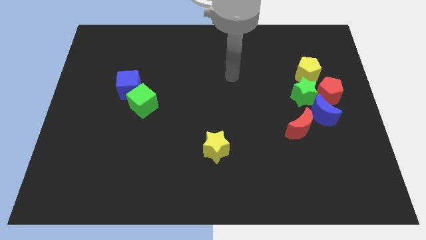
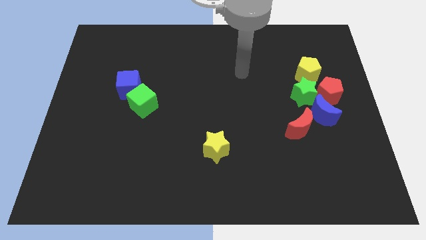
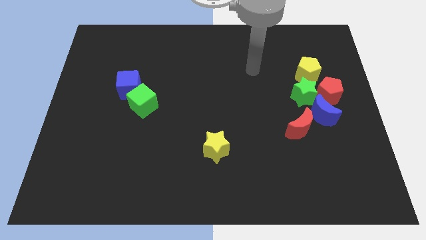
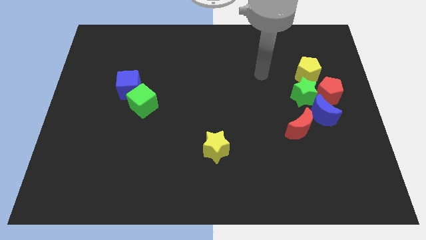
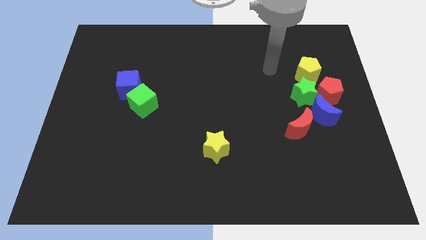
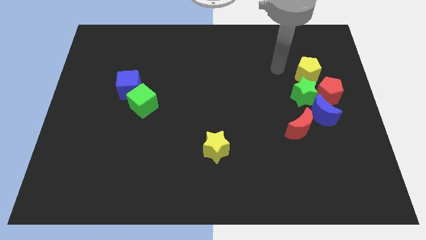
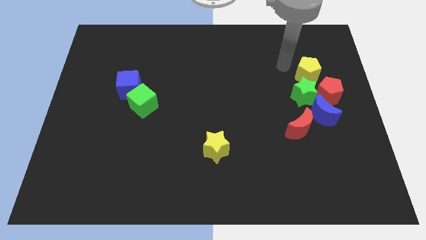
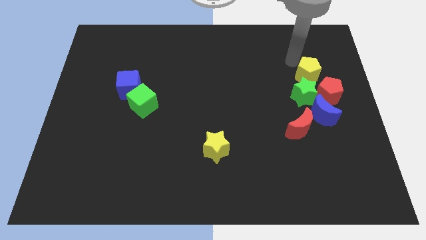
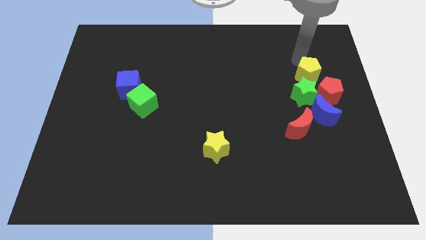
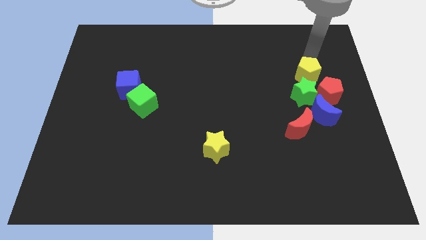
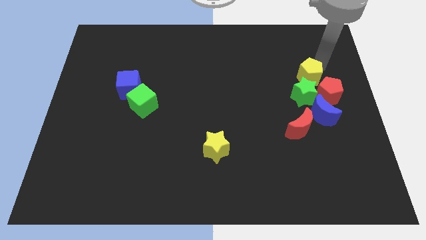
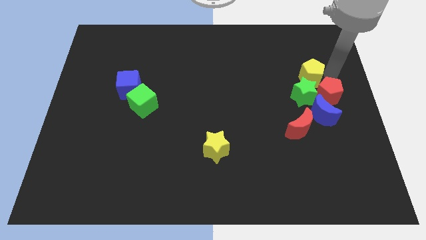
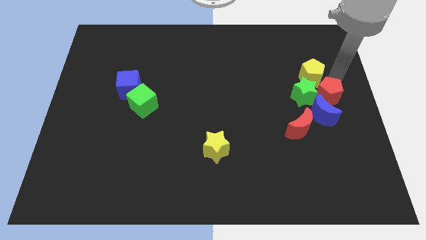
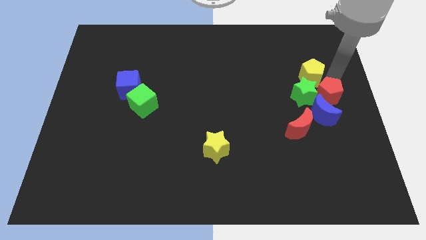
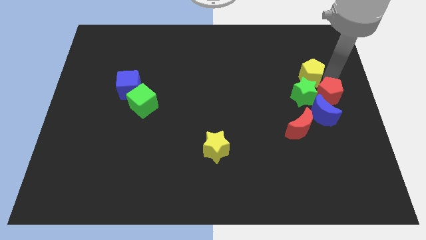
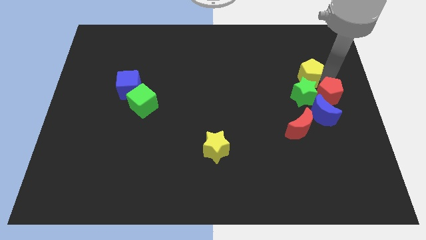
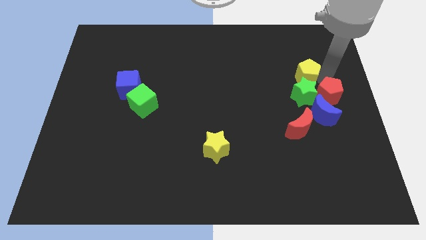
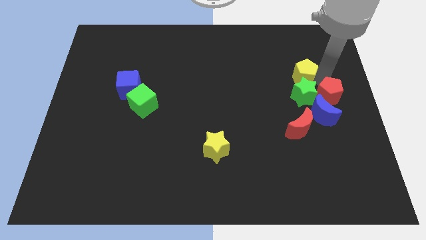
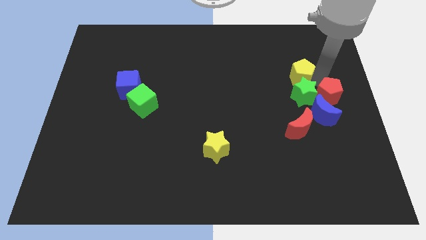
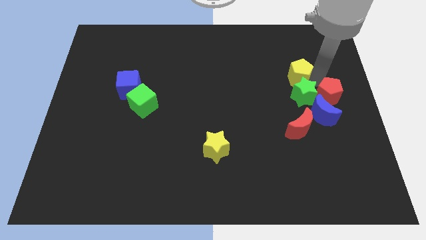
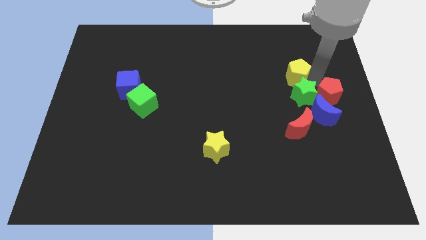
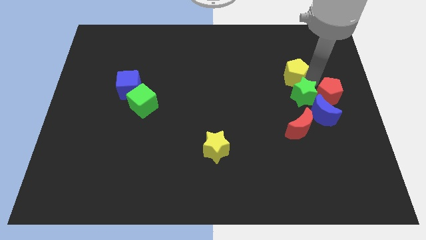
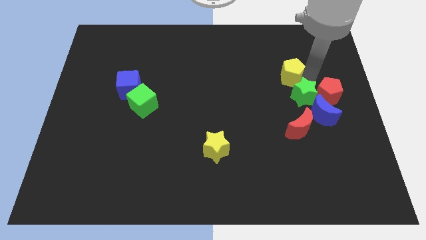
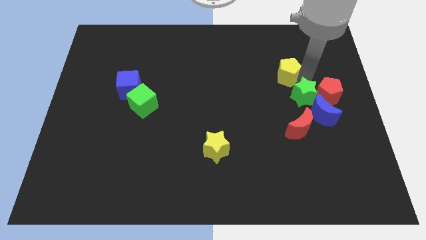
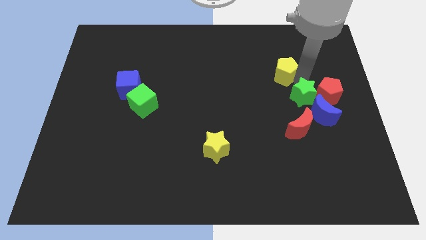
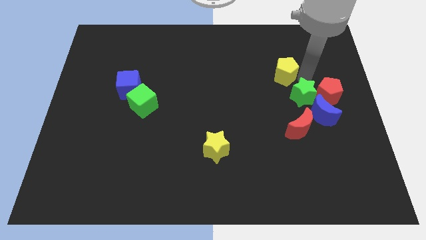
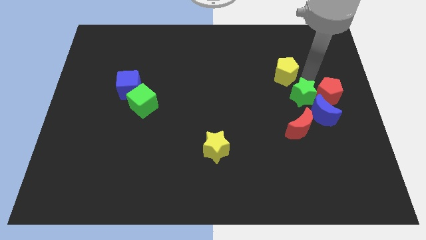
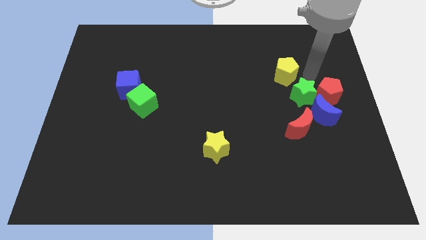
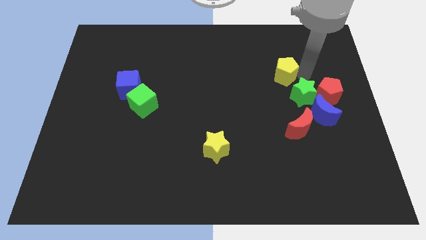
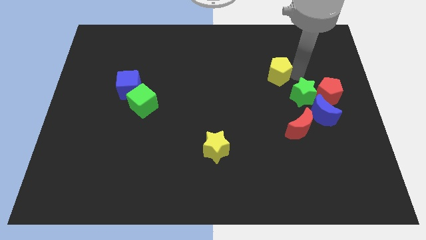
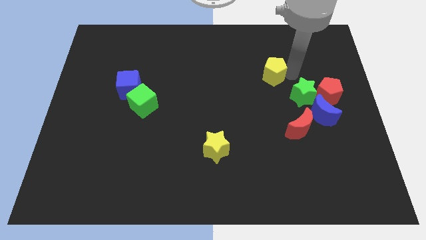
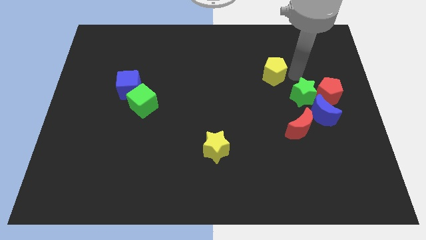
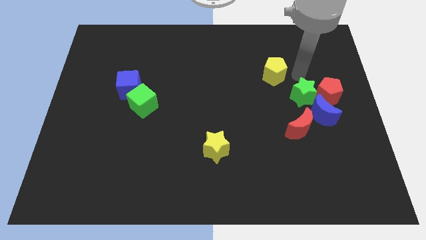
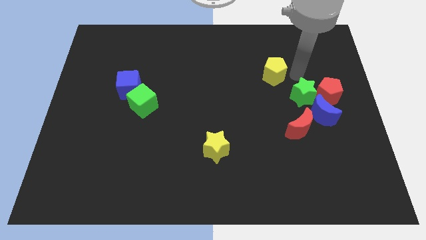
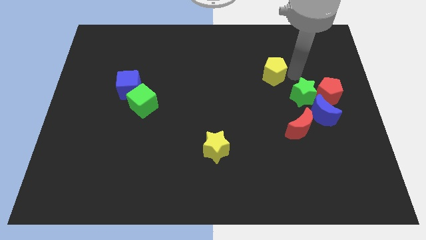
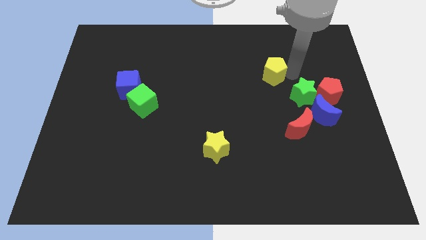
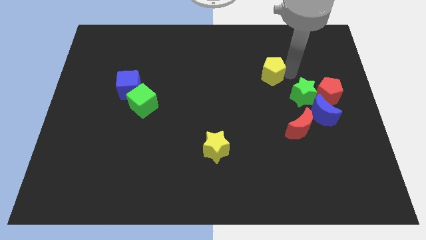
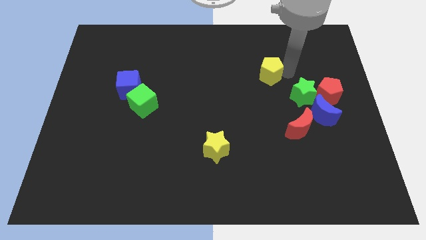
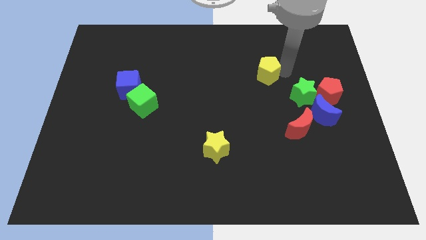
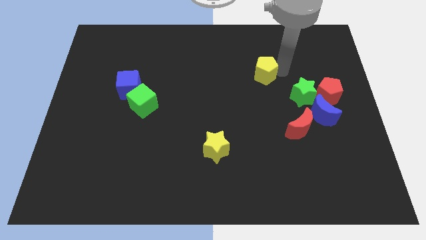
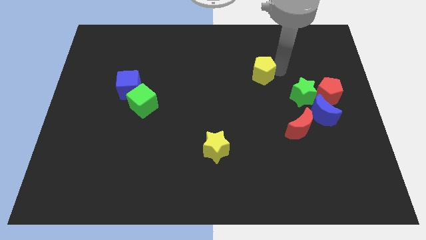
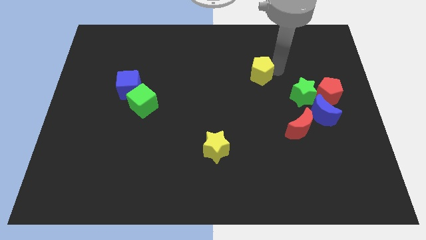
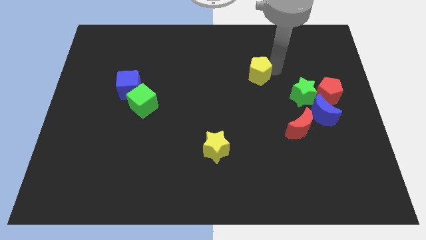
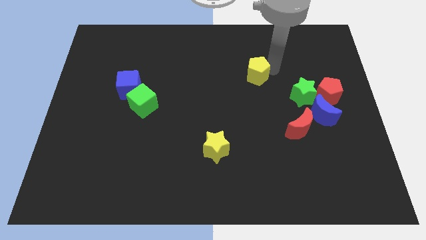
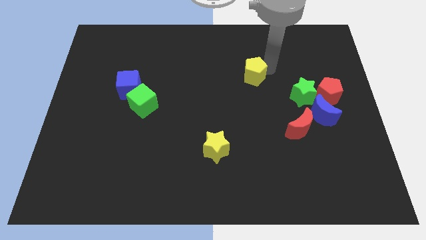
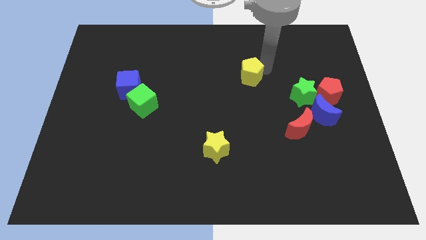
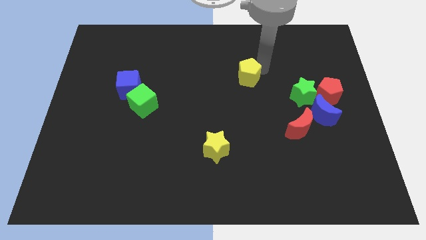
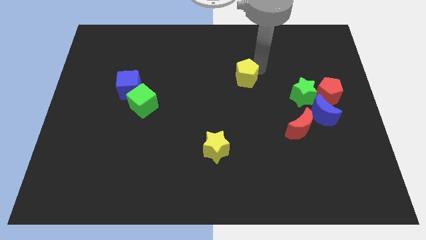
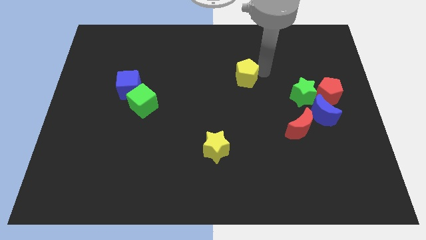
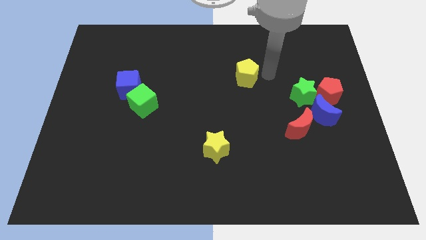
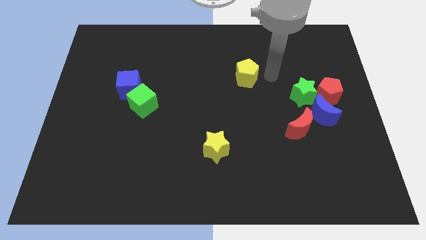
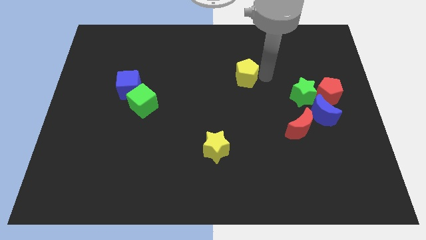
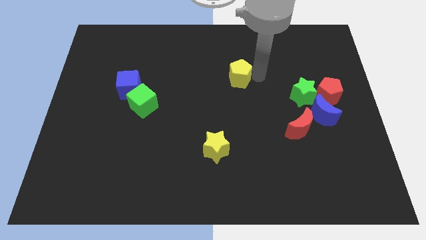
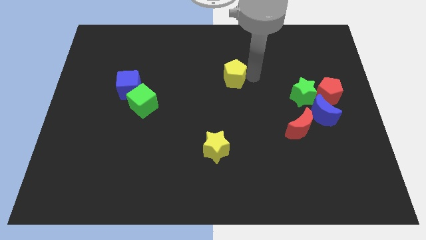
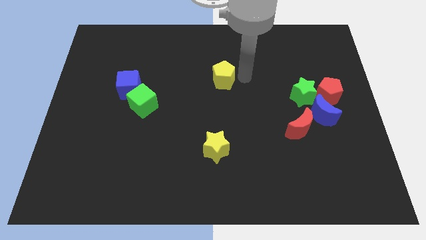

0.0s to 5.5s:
slide the yellow pentagon to the left

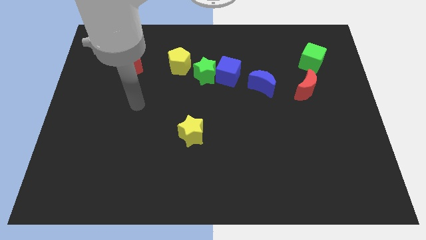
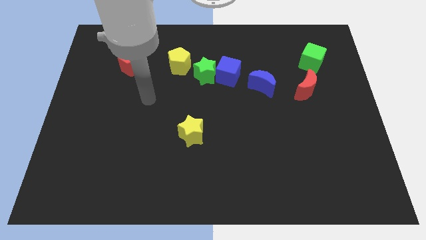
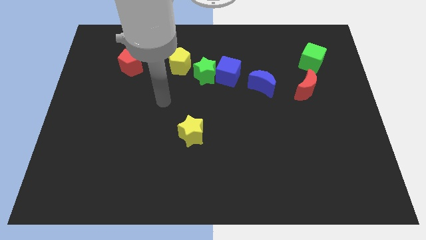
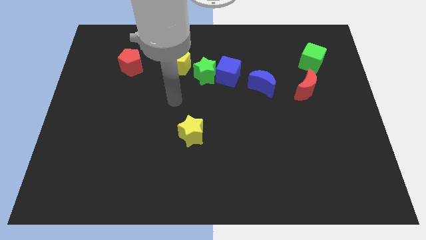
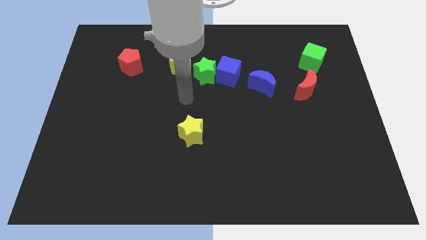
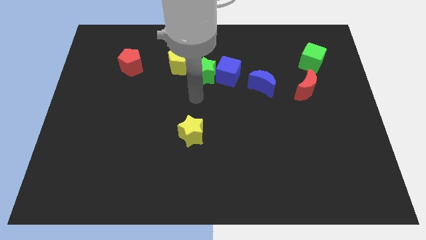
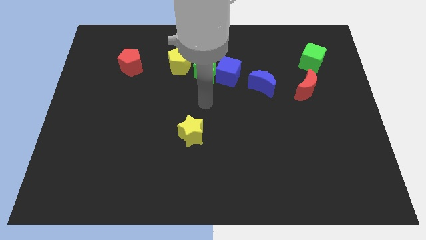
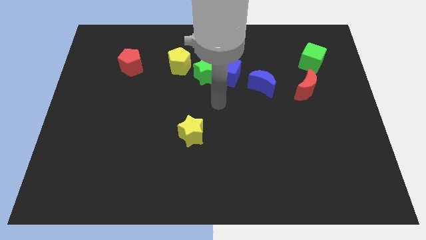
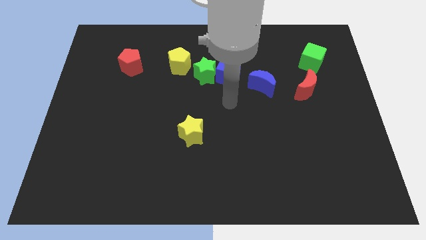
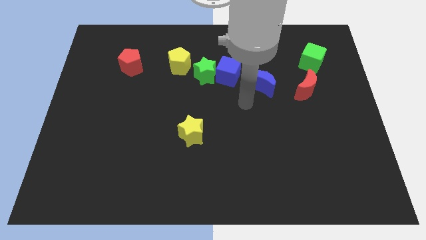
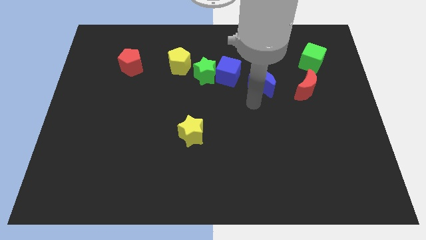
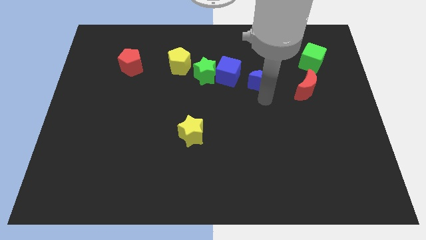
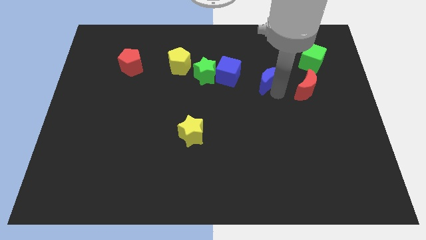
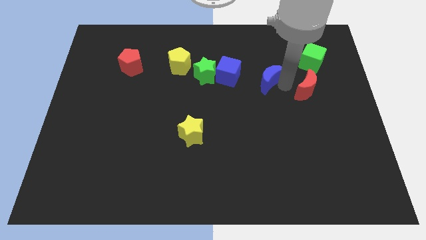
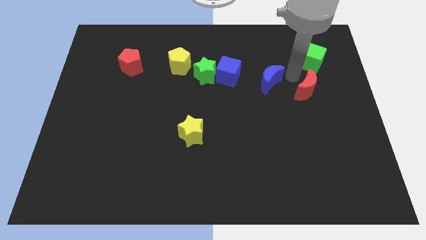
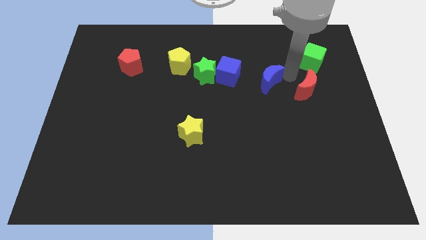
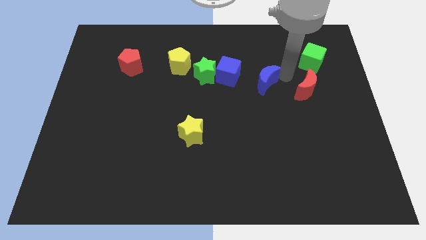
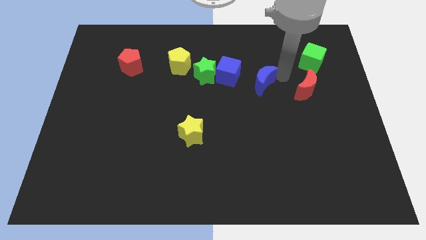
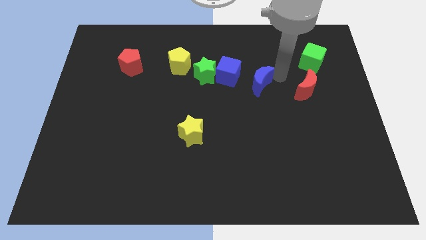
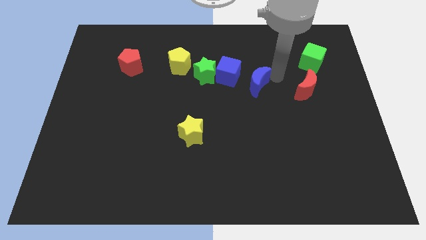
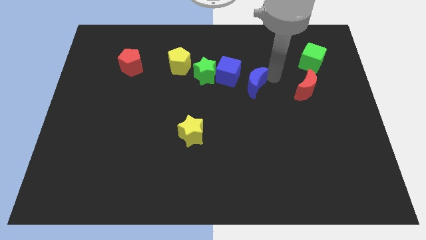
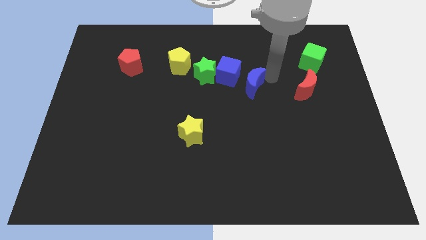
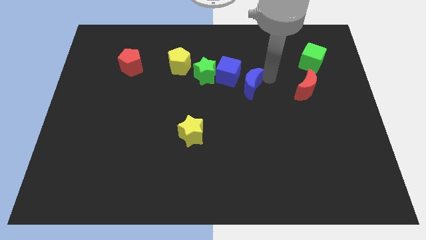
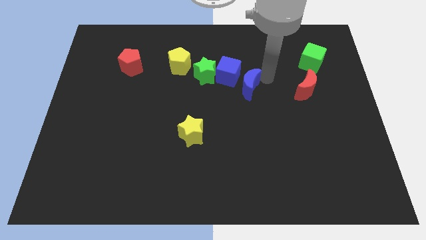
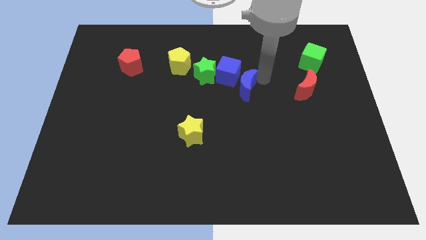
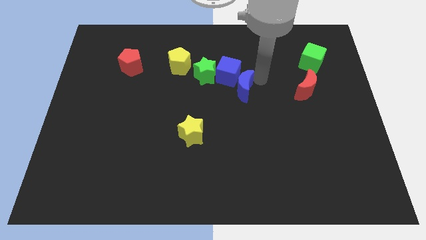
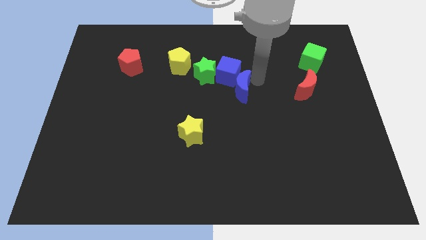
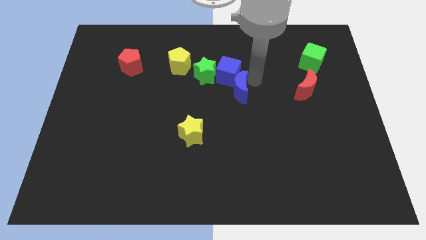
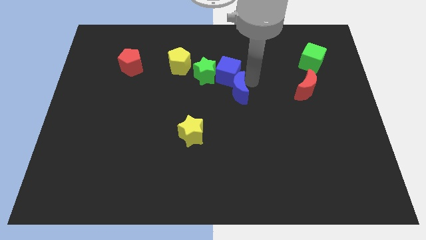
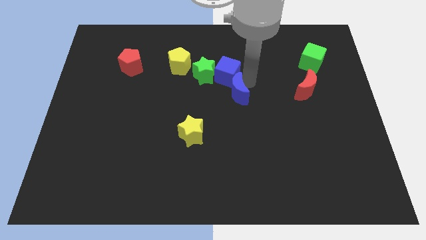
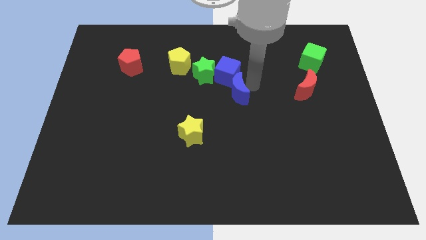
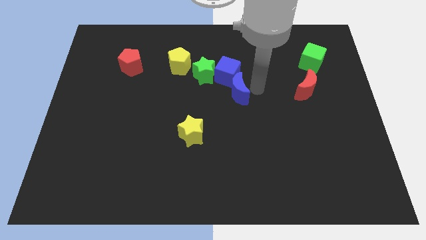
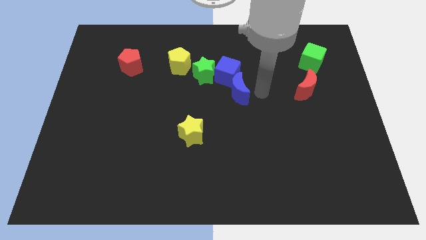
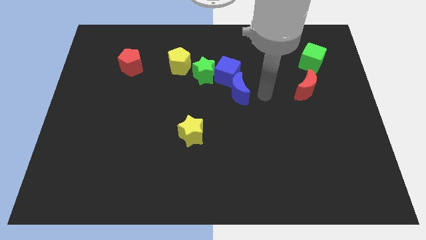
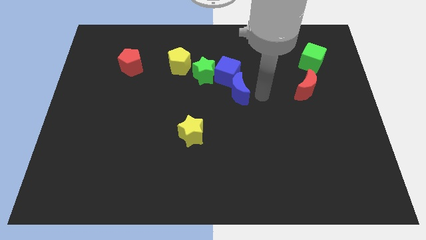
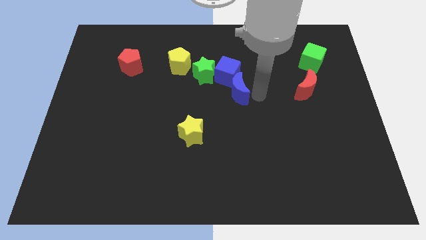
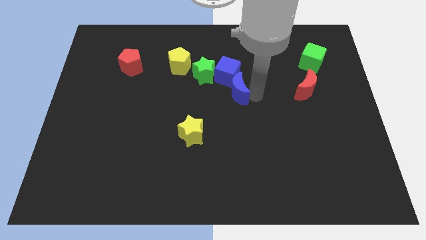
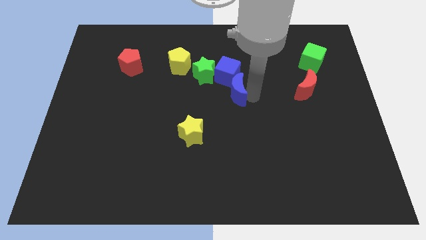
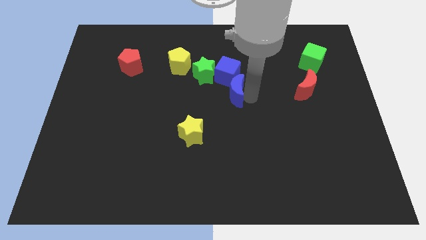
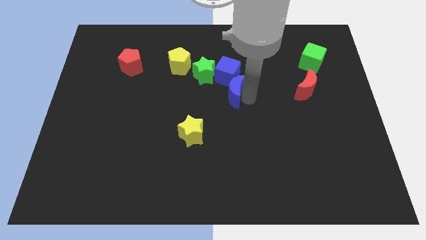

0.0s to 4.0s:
push the blue moon to the left a little
